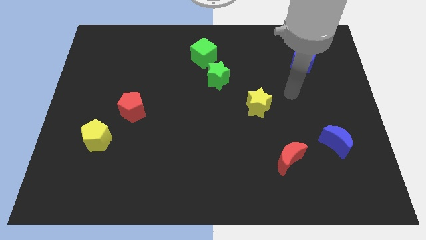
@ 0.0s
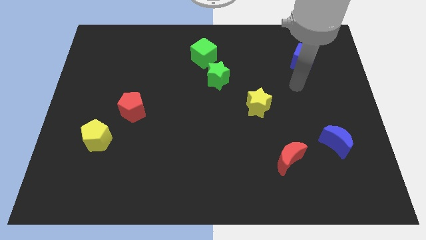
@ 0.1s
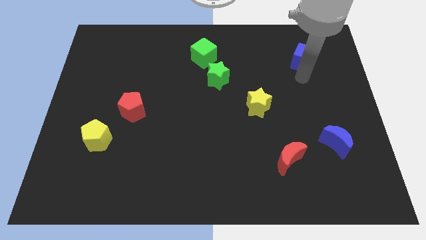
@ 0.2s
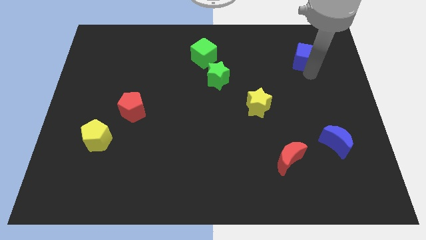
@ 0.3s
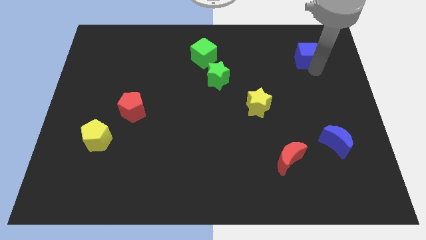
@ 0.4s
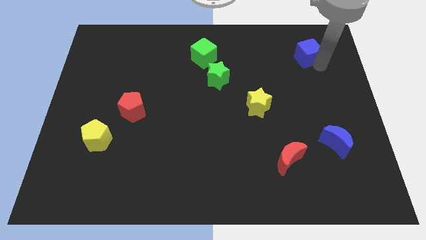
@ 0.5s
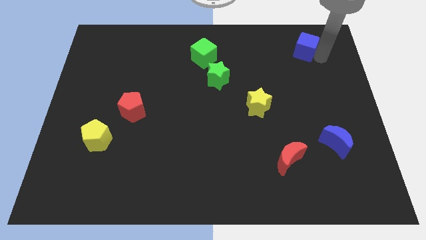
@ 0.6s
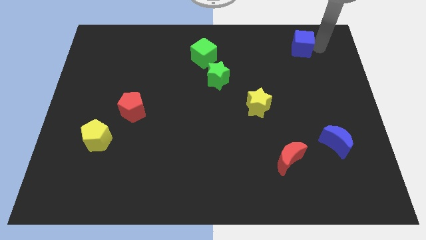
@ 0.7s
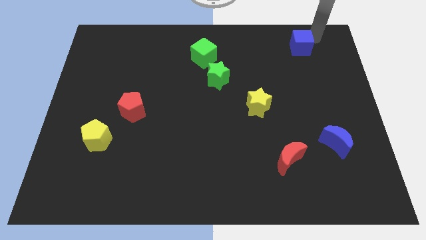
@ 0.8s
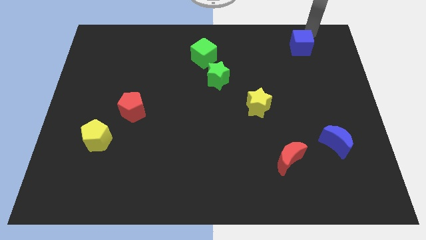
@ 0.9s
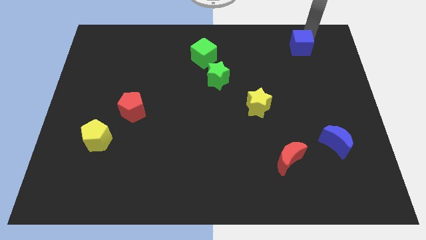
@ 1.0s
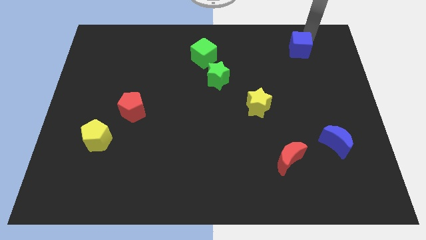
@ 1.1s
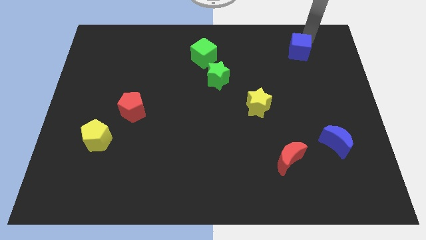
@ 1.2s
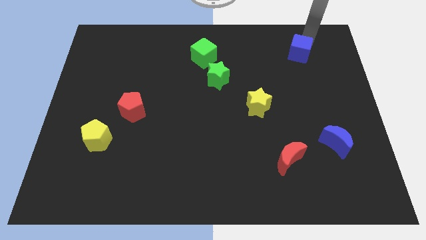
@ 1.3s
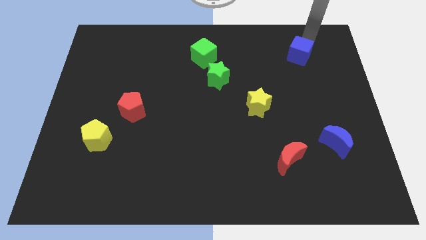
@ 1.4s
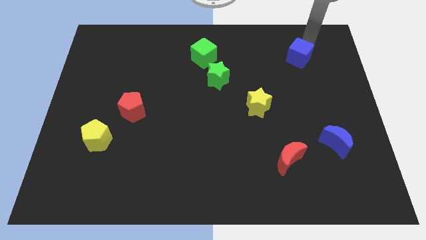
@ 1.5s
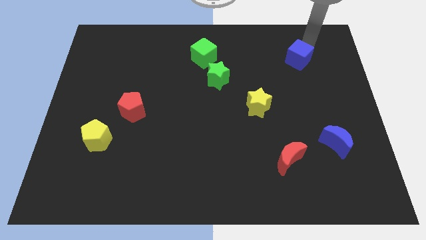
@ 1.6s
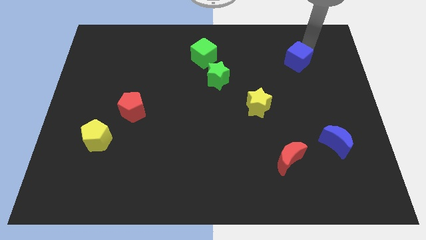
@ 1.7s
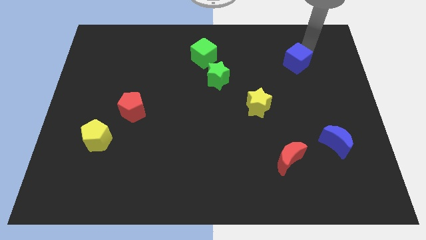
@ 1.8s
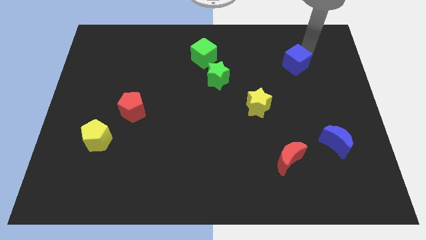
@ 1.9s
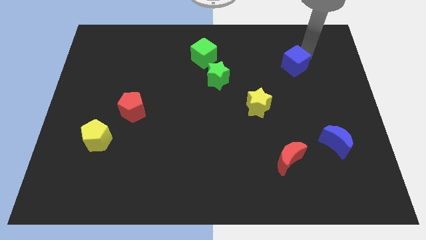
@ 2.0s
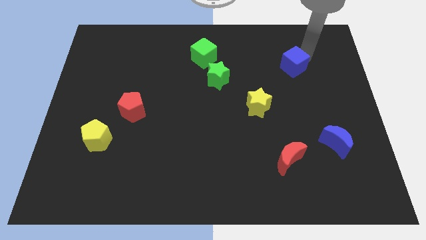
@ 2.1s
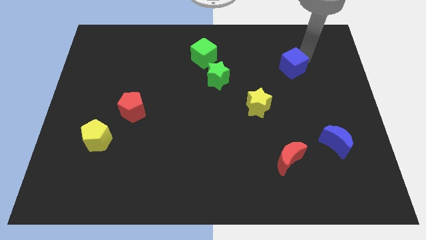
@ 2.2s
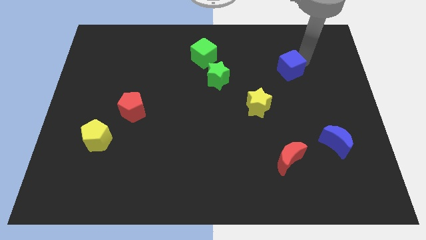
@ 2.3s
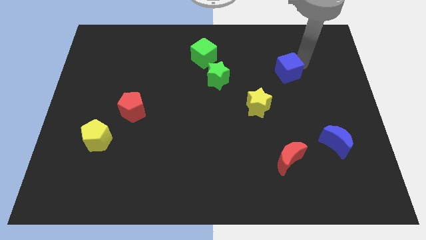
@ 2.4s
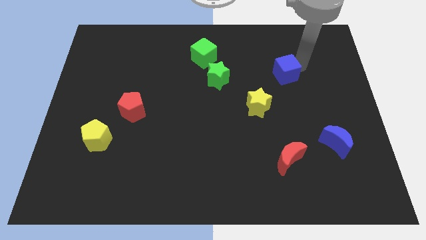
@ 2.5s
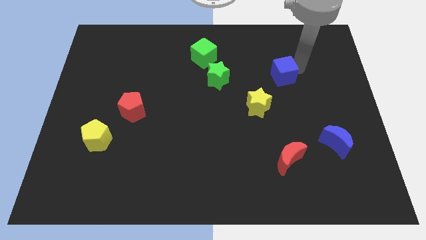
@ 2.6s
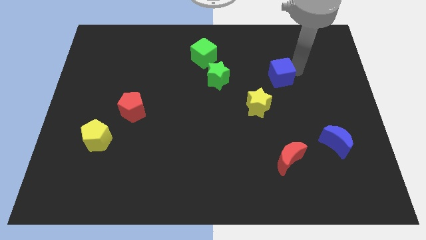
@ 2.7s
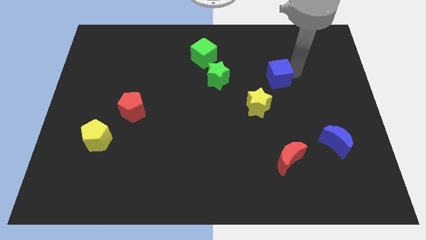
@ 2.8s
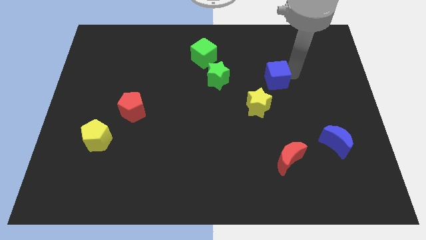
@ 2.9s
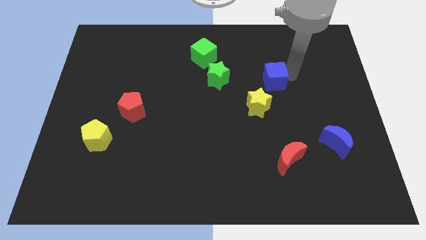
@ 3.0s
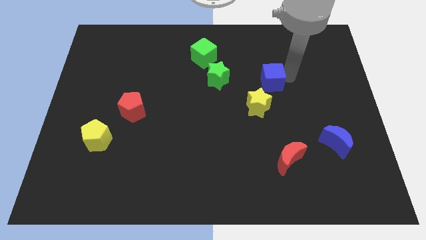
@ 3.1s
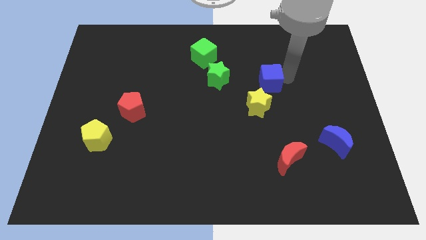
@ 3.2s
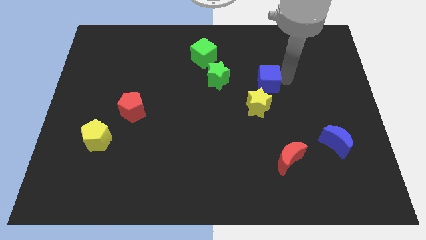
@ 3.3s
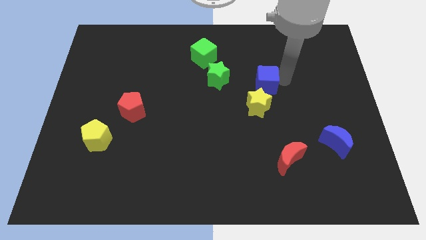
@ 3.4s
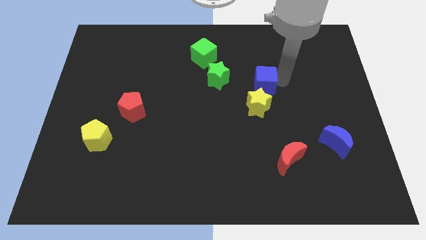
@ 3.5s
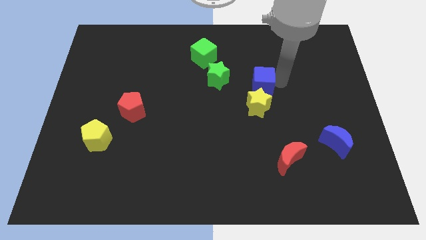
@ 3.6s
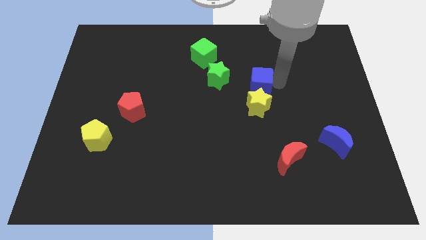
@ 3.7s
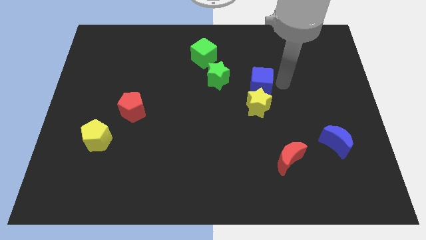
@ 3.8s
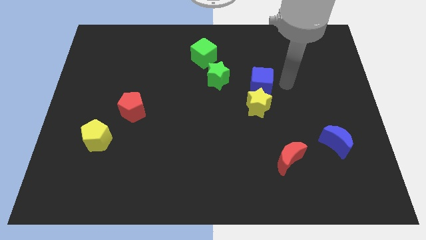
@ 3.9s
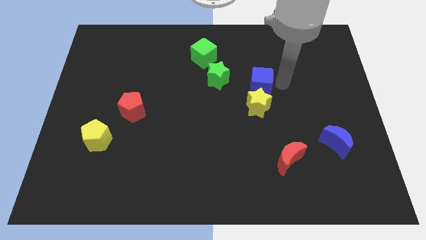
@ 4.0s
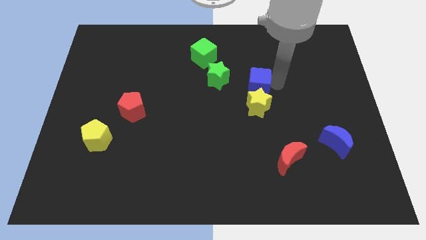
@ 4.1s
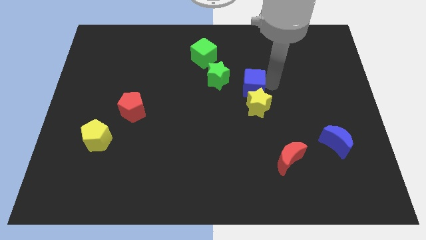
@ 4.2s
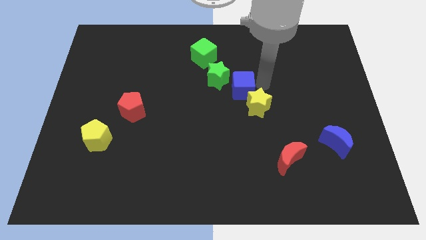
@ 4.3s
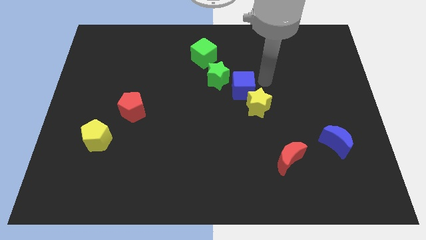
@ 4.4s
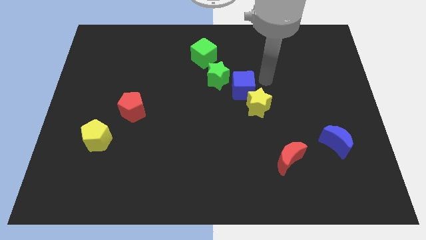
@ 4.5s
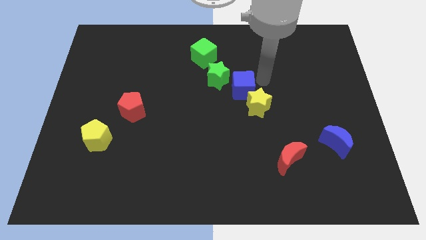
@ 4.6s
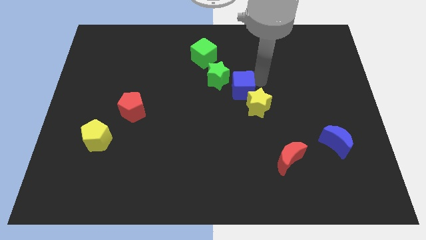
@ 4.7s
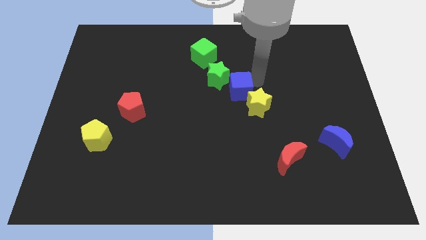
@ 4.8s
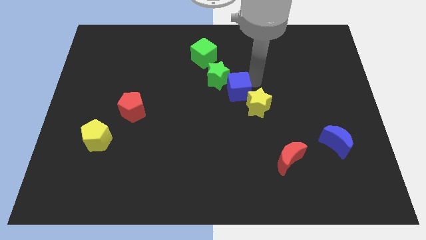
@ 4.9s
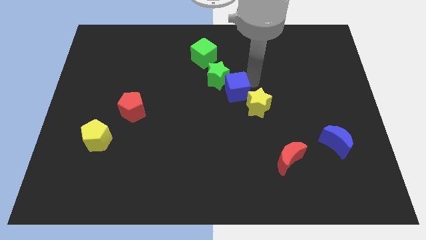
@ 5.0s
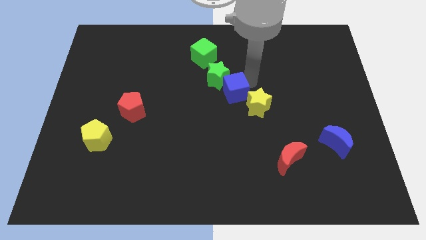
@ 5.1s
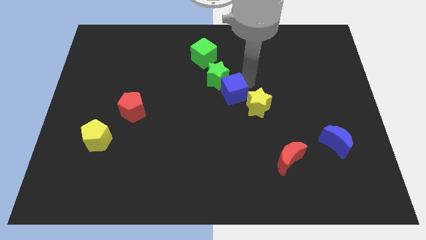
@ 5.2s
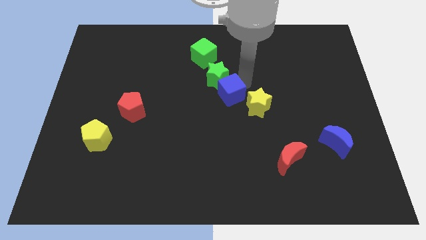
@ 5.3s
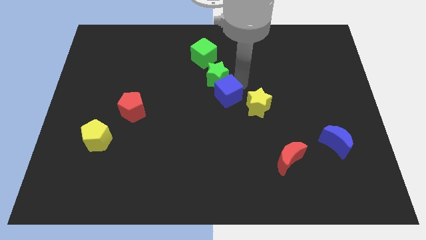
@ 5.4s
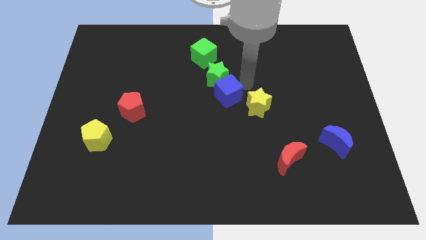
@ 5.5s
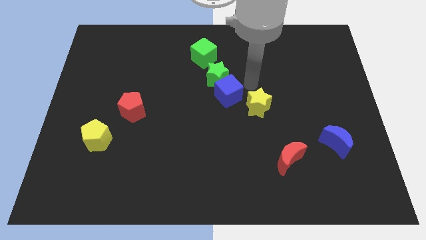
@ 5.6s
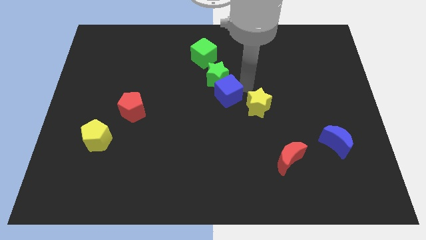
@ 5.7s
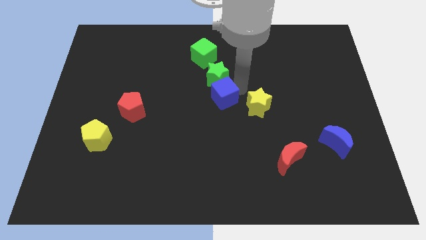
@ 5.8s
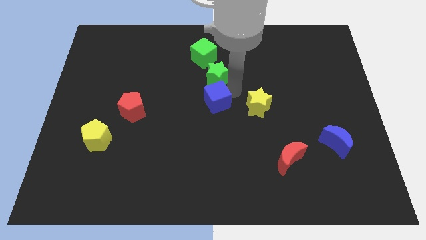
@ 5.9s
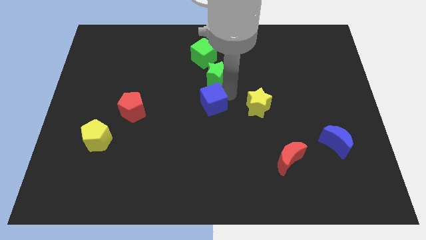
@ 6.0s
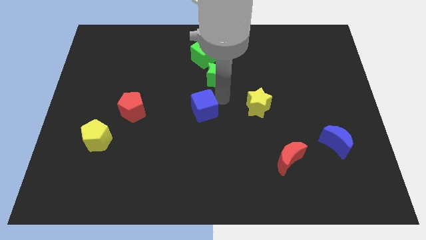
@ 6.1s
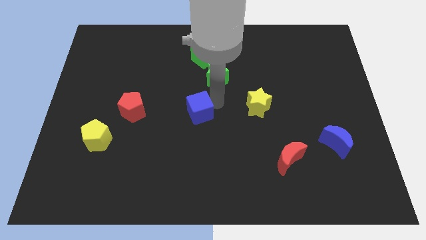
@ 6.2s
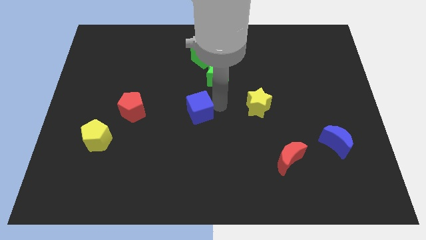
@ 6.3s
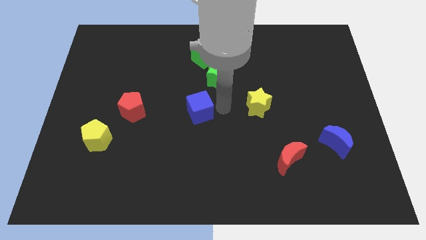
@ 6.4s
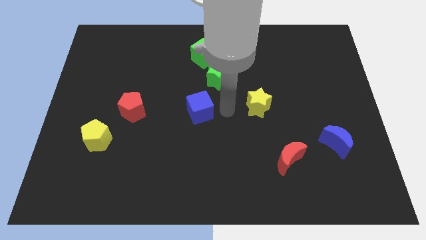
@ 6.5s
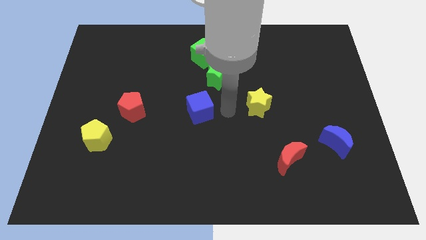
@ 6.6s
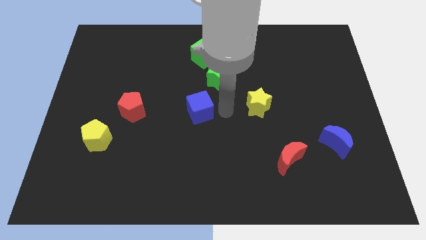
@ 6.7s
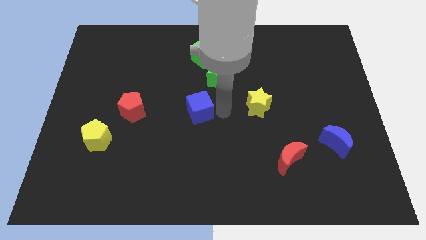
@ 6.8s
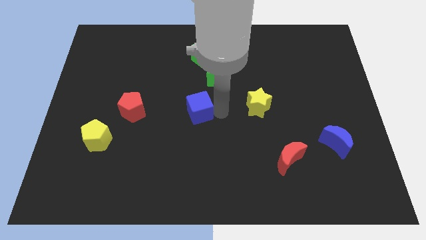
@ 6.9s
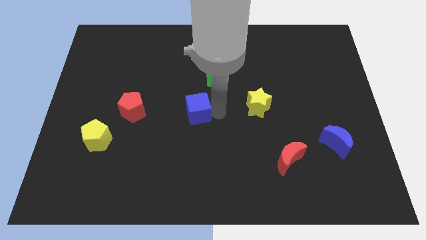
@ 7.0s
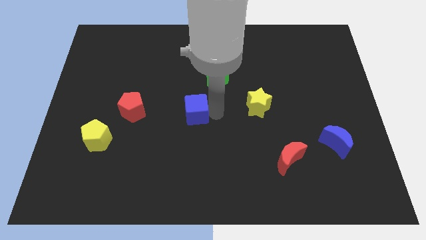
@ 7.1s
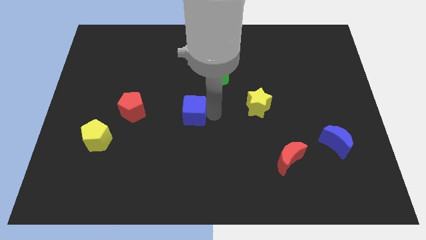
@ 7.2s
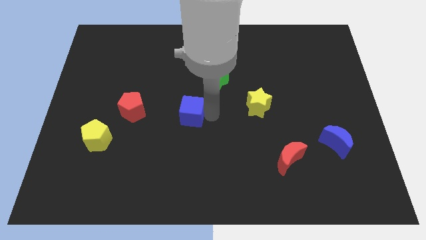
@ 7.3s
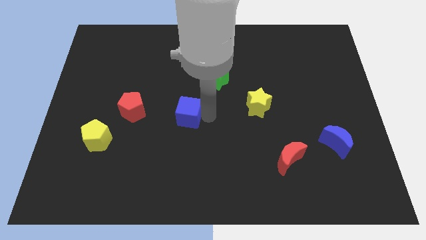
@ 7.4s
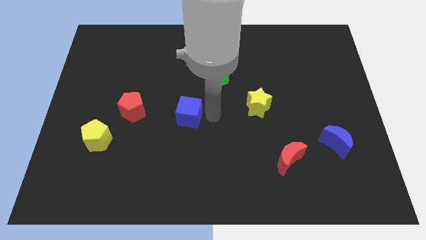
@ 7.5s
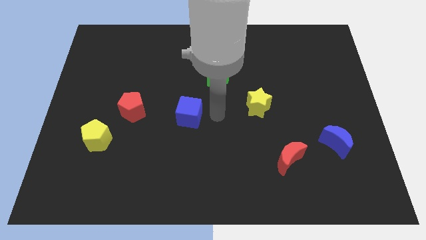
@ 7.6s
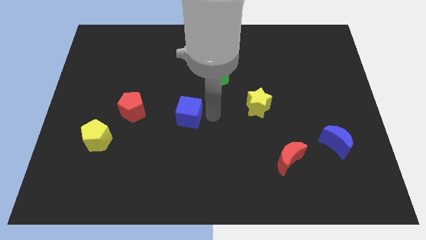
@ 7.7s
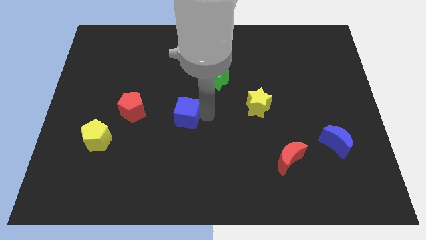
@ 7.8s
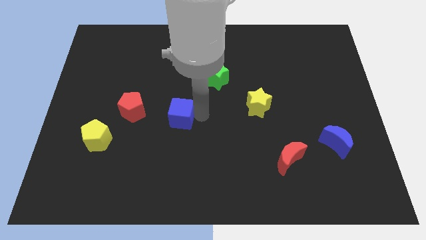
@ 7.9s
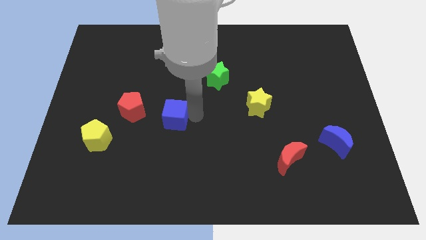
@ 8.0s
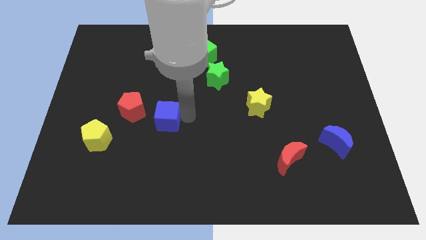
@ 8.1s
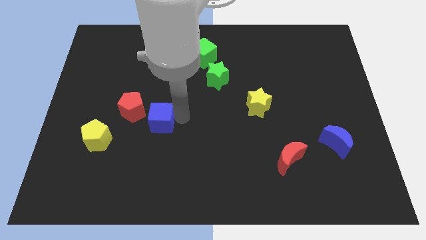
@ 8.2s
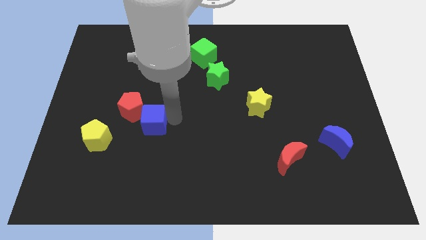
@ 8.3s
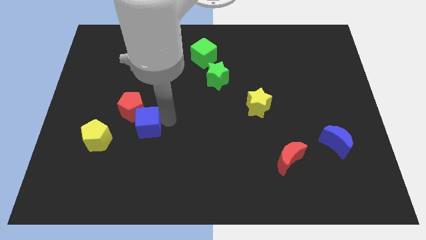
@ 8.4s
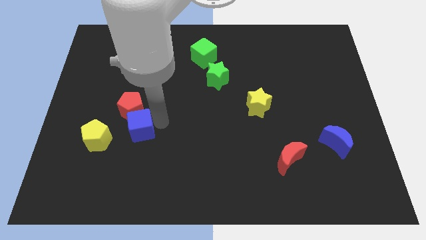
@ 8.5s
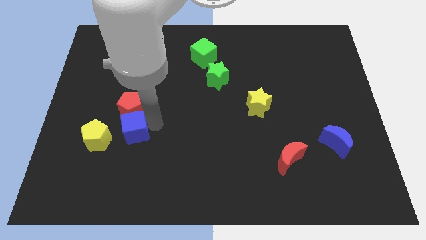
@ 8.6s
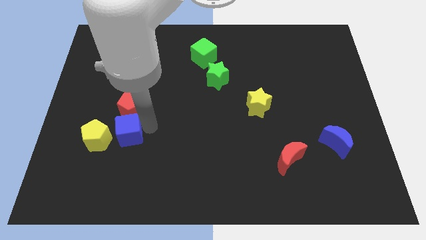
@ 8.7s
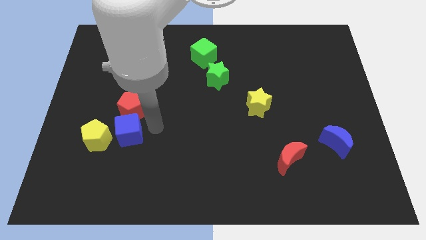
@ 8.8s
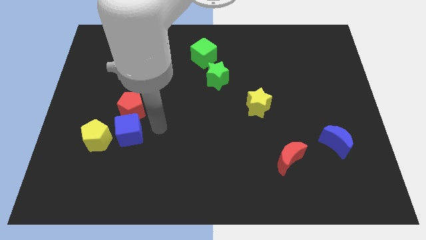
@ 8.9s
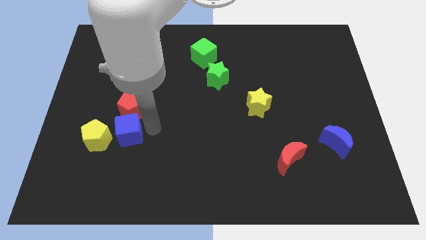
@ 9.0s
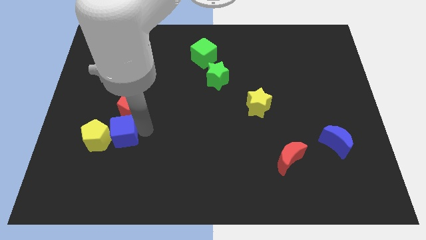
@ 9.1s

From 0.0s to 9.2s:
slide the blue cube next to the yellow pentagon
